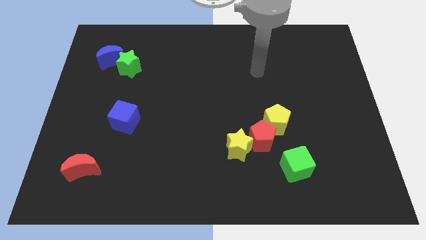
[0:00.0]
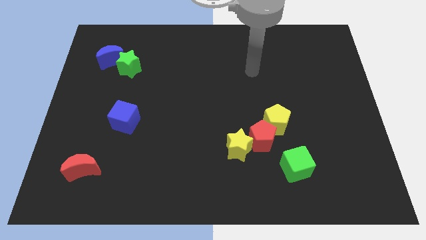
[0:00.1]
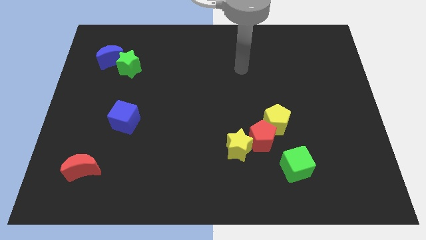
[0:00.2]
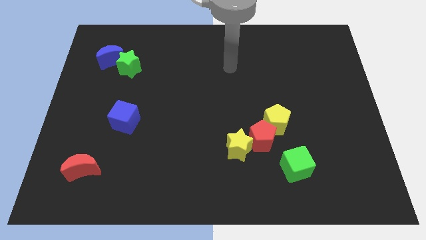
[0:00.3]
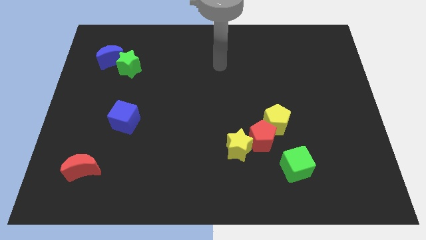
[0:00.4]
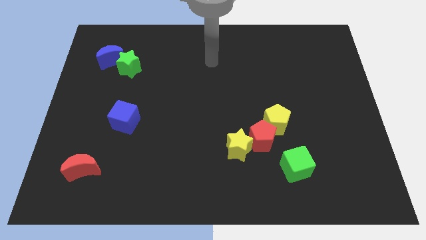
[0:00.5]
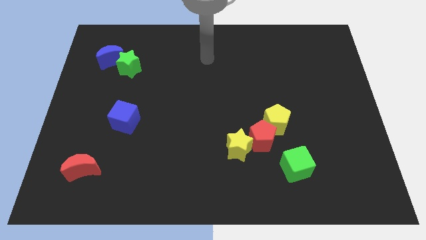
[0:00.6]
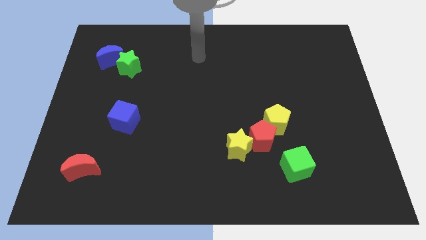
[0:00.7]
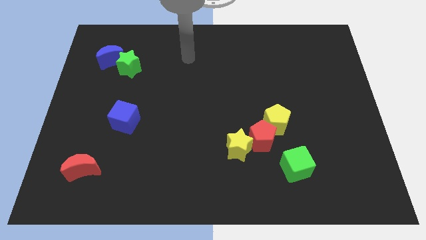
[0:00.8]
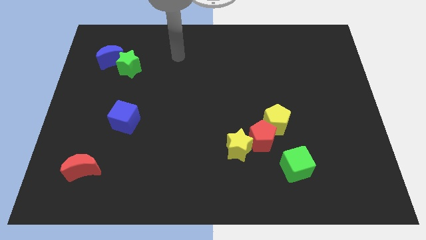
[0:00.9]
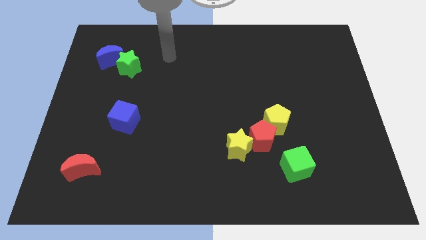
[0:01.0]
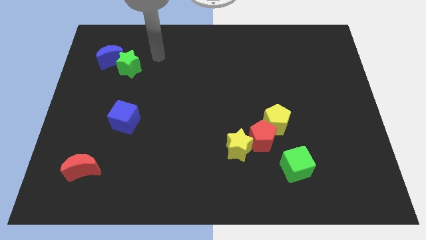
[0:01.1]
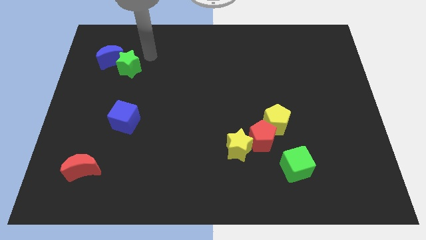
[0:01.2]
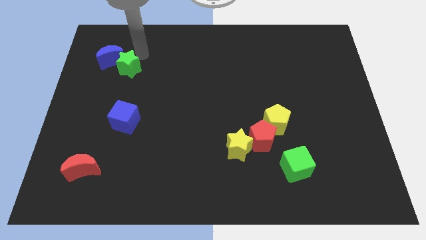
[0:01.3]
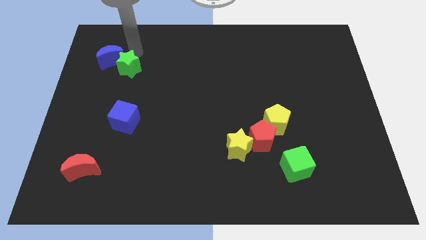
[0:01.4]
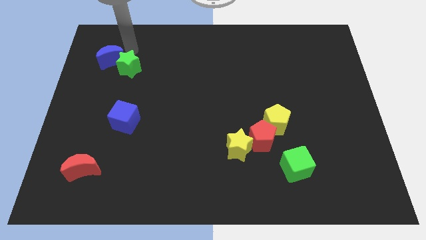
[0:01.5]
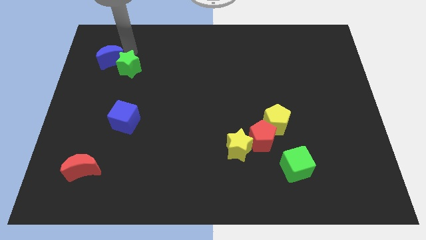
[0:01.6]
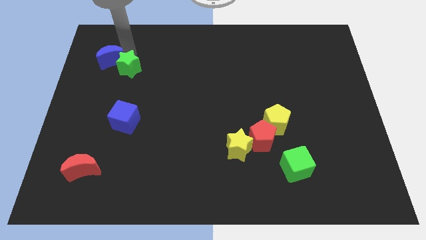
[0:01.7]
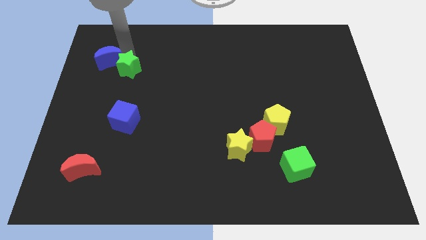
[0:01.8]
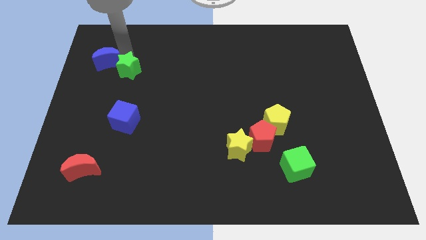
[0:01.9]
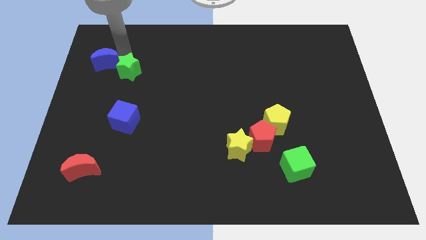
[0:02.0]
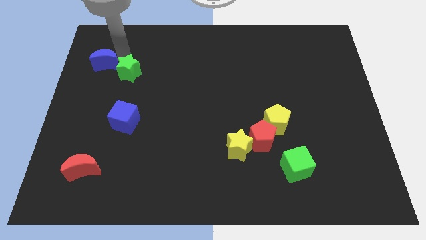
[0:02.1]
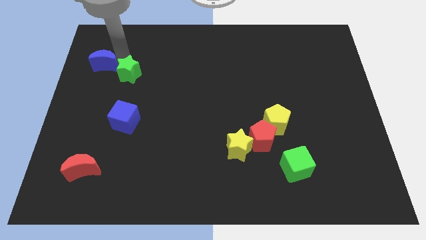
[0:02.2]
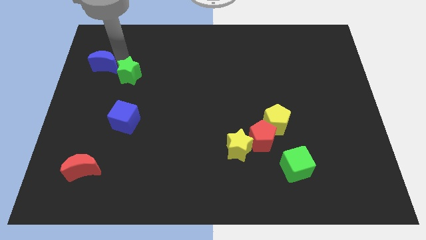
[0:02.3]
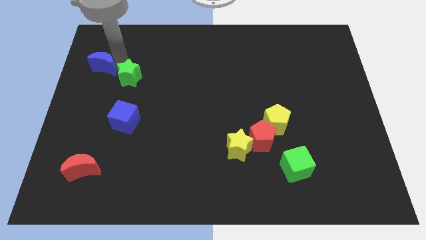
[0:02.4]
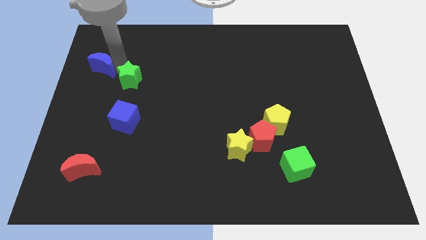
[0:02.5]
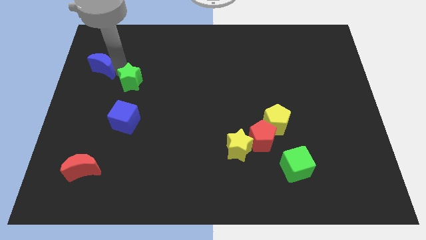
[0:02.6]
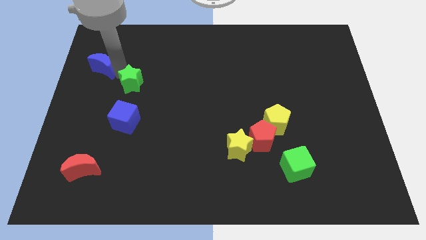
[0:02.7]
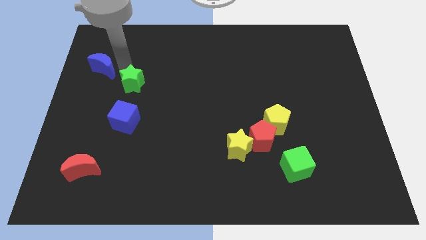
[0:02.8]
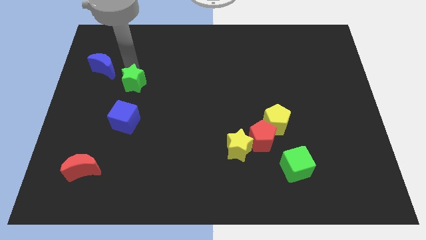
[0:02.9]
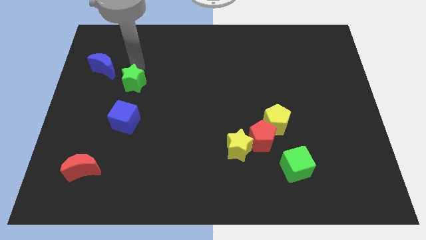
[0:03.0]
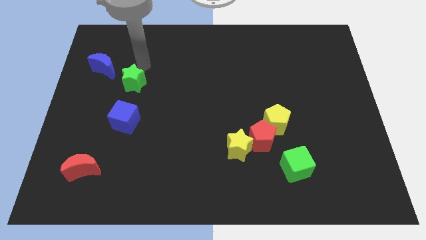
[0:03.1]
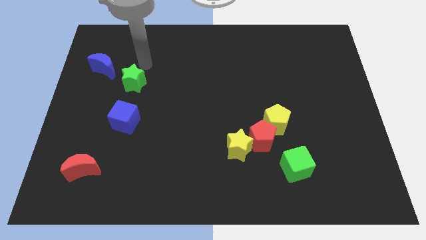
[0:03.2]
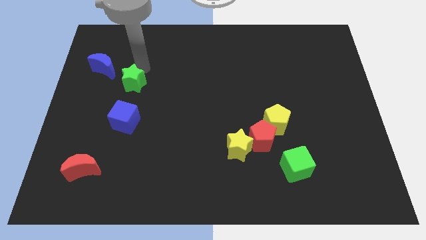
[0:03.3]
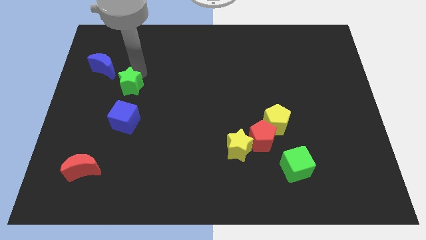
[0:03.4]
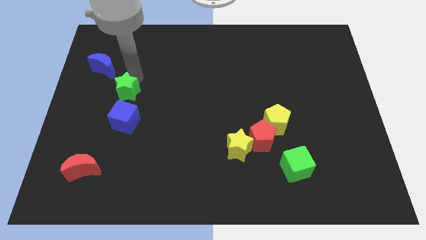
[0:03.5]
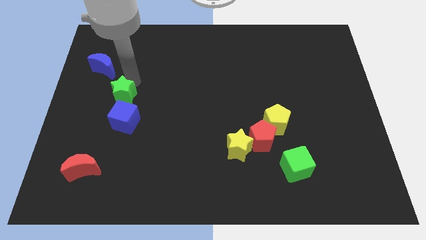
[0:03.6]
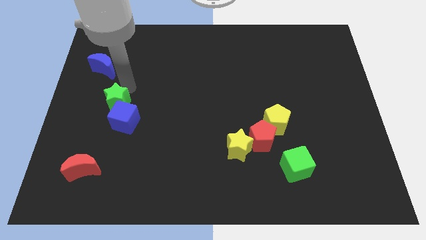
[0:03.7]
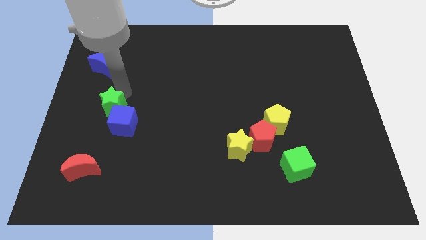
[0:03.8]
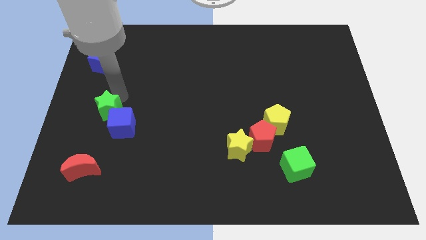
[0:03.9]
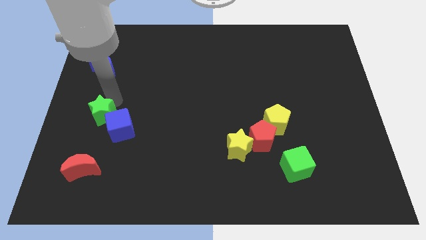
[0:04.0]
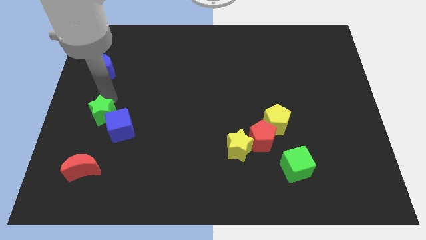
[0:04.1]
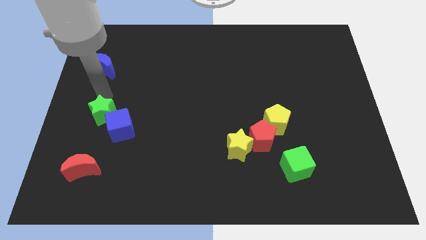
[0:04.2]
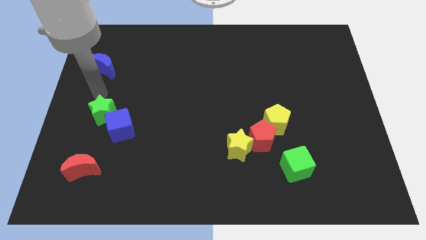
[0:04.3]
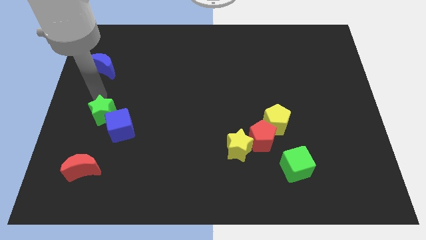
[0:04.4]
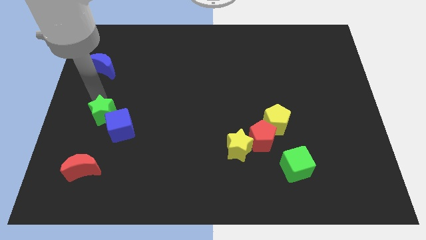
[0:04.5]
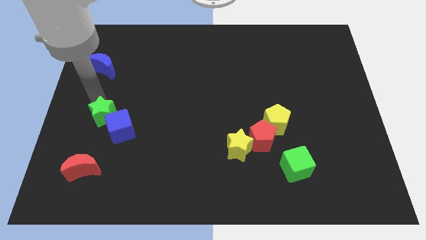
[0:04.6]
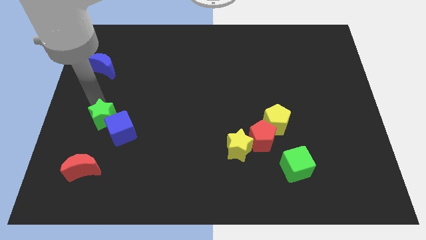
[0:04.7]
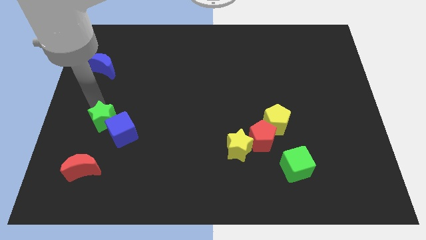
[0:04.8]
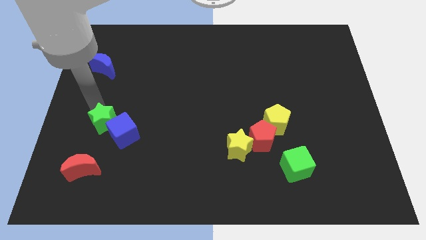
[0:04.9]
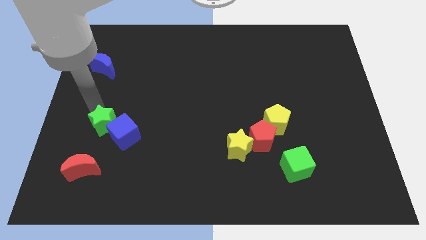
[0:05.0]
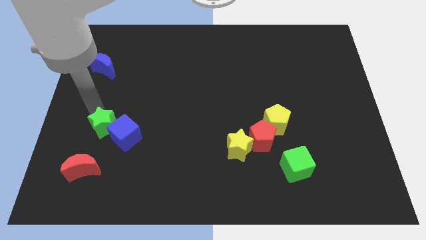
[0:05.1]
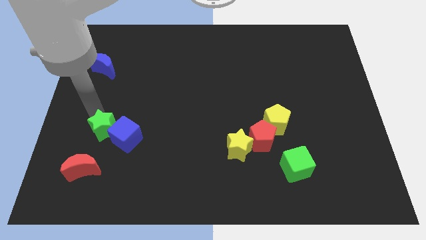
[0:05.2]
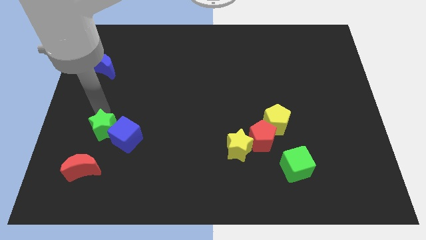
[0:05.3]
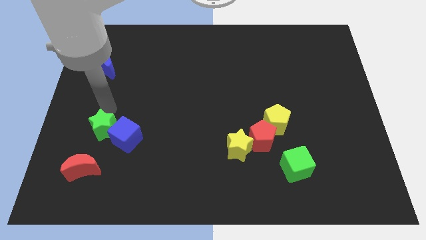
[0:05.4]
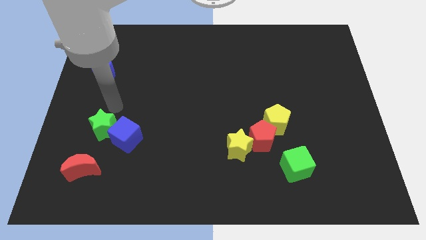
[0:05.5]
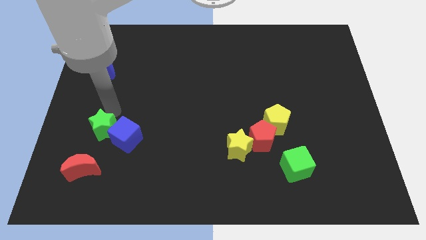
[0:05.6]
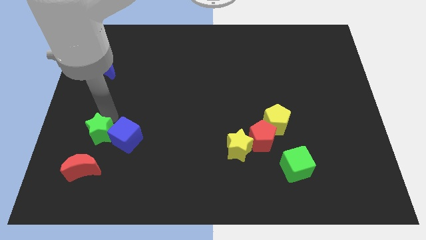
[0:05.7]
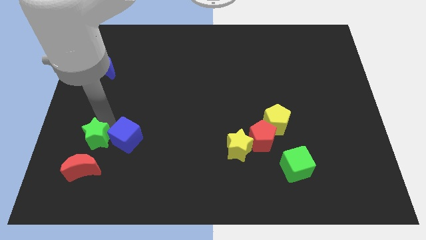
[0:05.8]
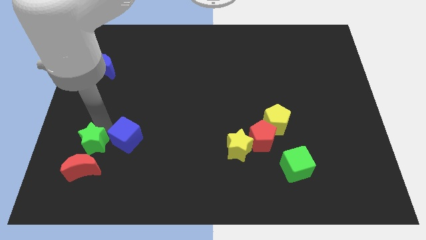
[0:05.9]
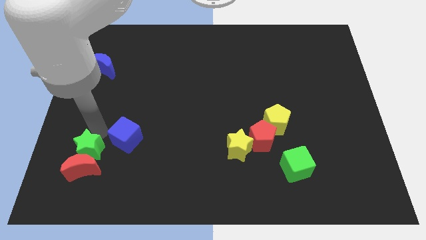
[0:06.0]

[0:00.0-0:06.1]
move the green star next to the red moon

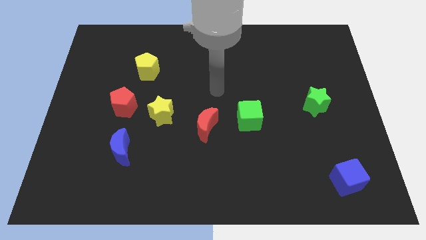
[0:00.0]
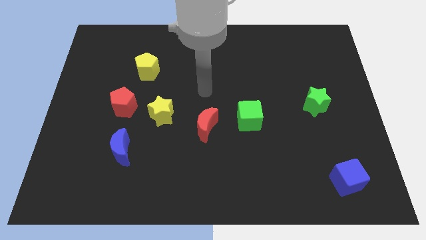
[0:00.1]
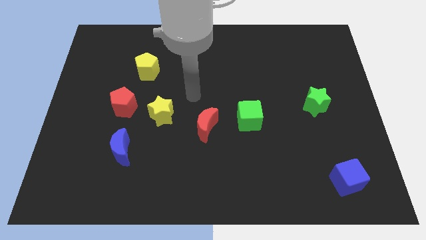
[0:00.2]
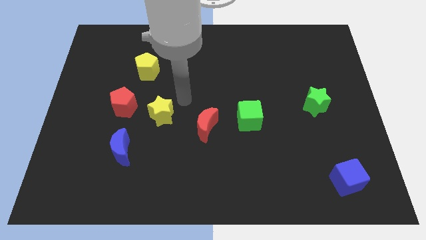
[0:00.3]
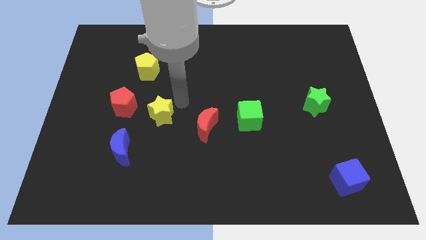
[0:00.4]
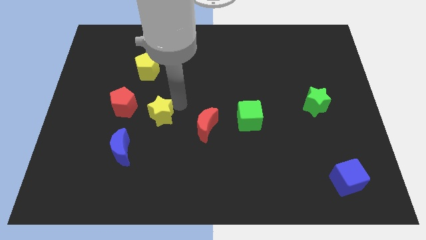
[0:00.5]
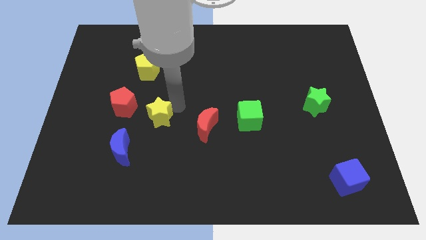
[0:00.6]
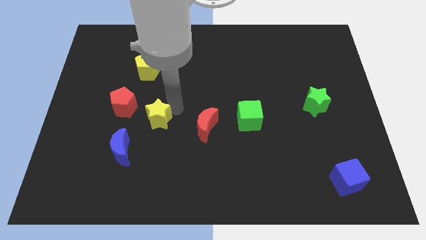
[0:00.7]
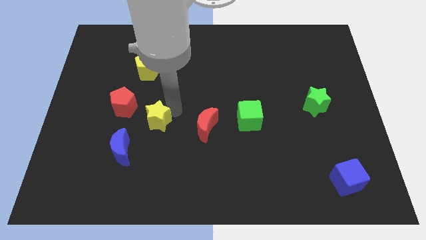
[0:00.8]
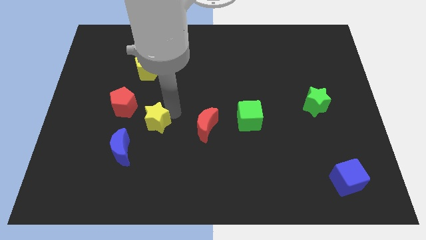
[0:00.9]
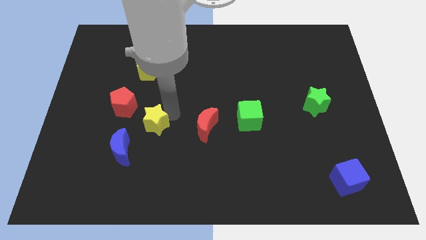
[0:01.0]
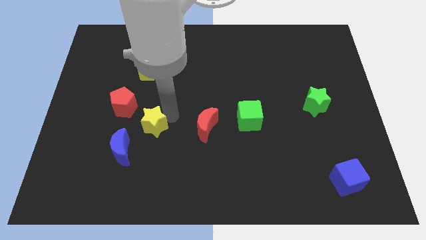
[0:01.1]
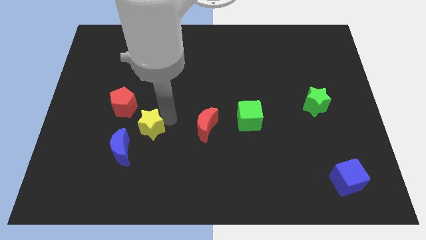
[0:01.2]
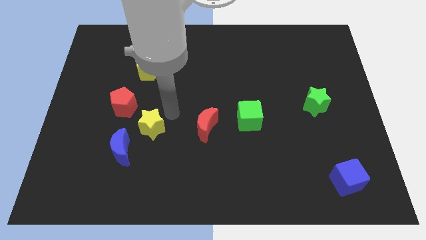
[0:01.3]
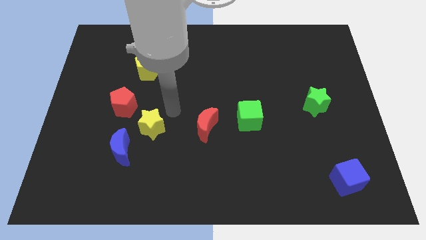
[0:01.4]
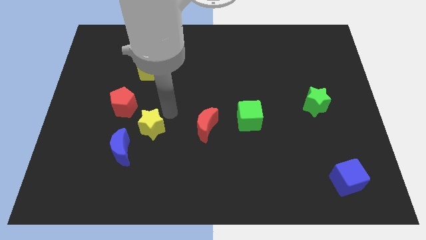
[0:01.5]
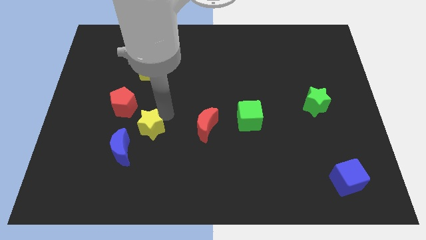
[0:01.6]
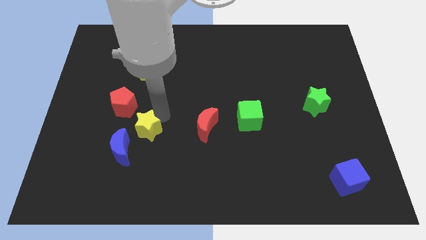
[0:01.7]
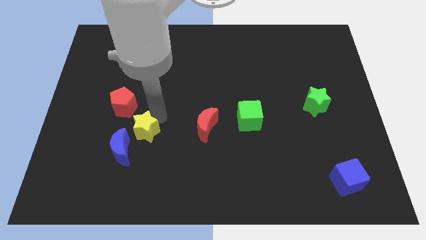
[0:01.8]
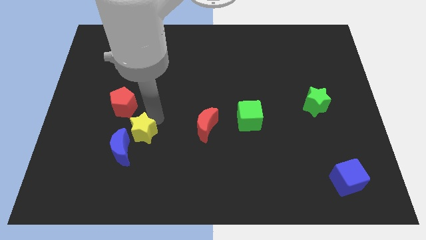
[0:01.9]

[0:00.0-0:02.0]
push the yellow star close to the blue moon
